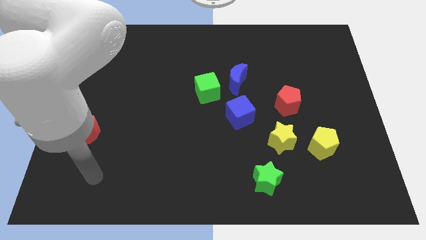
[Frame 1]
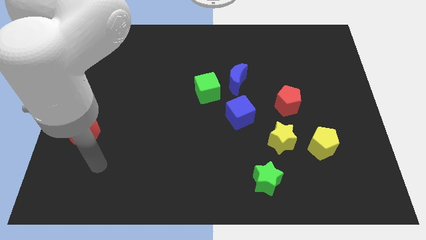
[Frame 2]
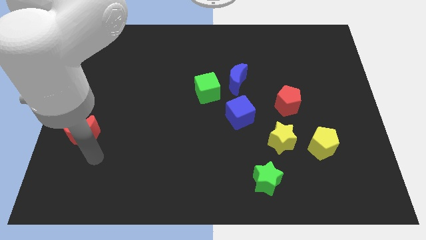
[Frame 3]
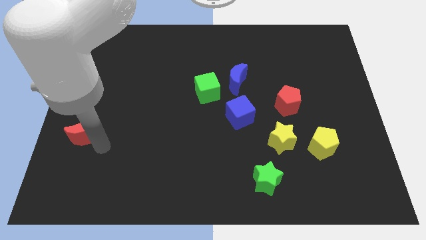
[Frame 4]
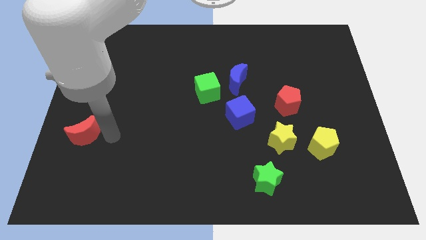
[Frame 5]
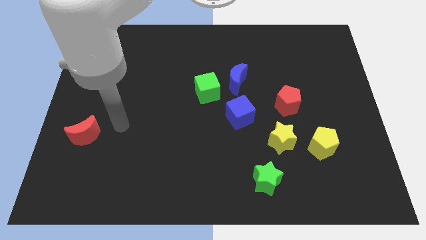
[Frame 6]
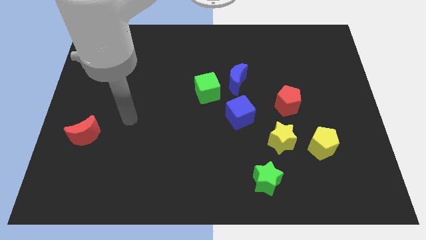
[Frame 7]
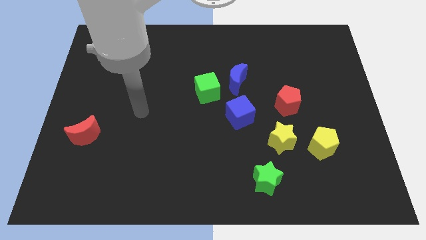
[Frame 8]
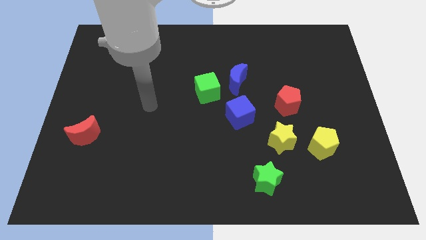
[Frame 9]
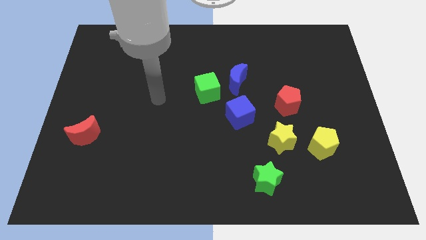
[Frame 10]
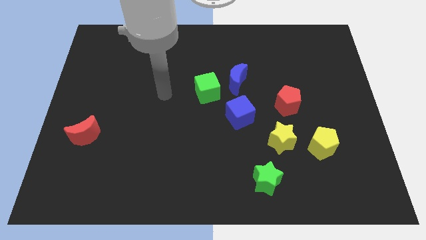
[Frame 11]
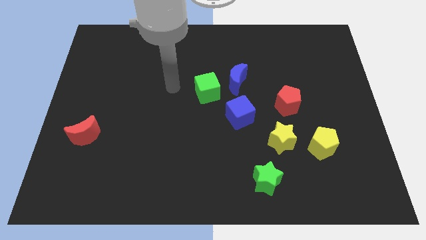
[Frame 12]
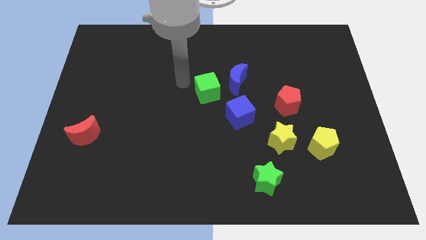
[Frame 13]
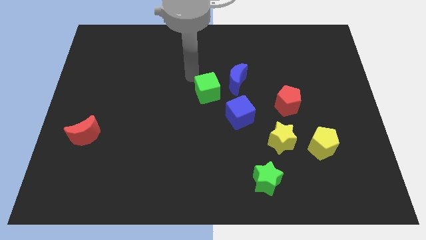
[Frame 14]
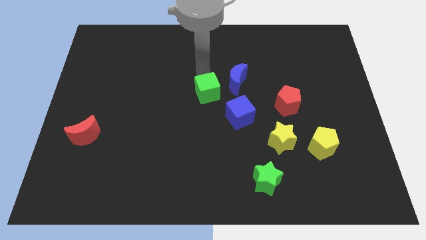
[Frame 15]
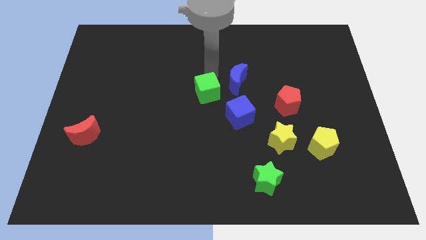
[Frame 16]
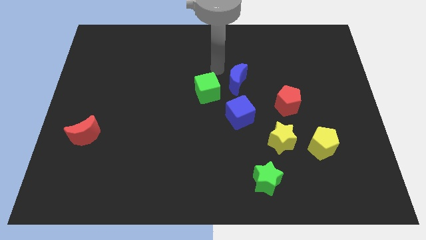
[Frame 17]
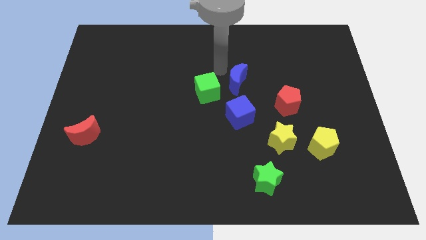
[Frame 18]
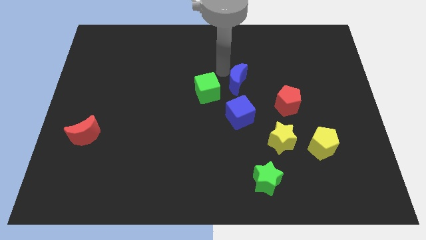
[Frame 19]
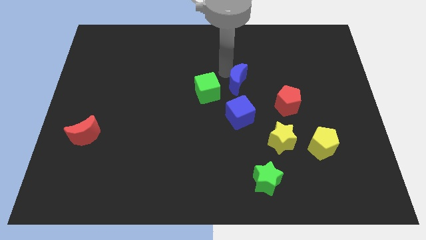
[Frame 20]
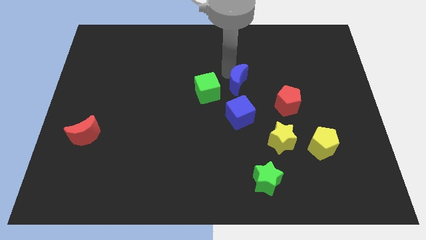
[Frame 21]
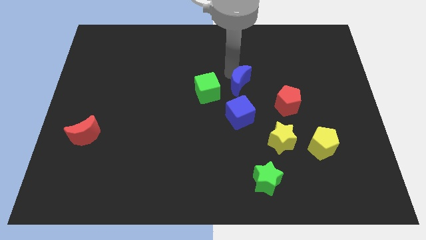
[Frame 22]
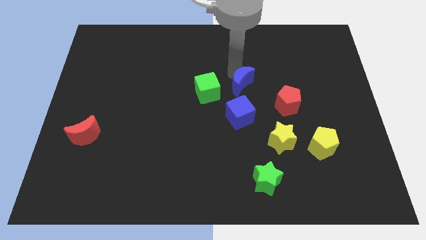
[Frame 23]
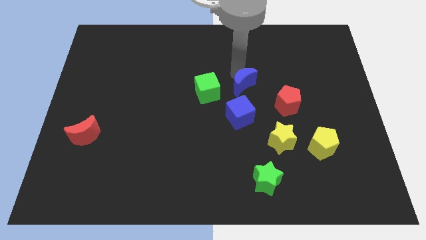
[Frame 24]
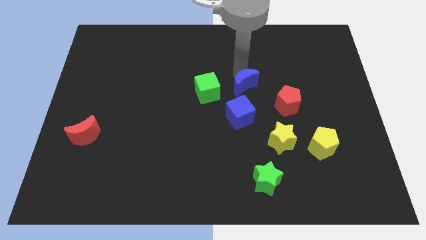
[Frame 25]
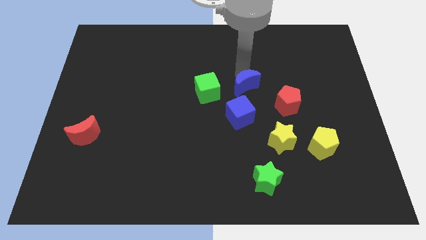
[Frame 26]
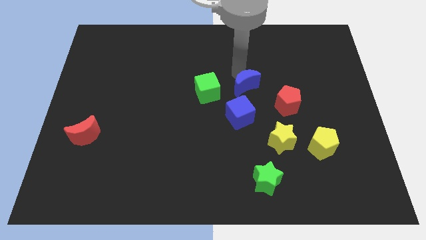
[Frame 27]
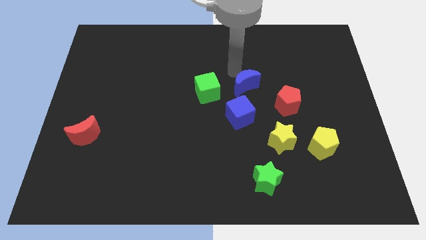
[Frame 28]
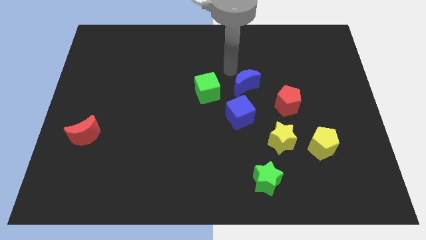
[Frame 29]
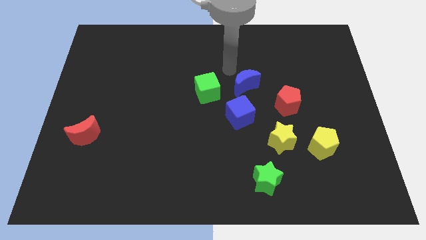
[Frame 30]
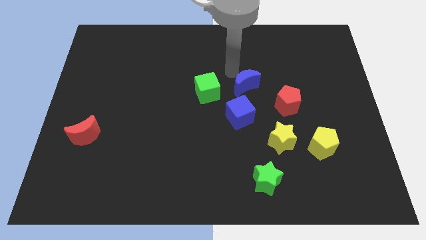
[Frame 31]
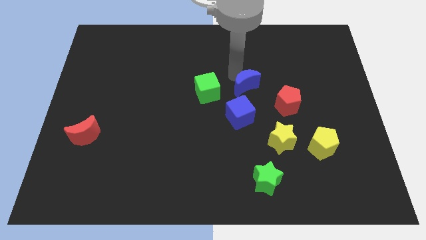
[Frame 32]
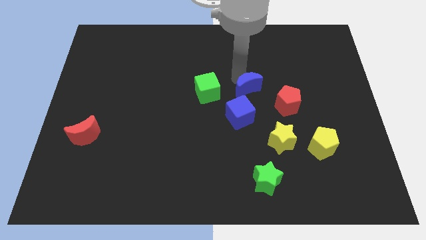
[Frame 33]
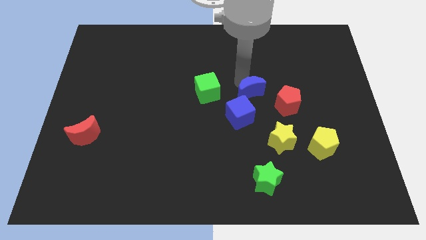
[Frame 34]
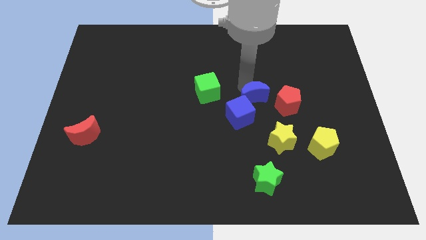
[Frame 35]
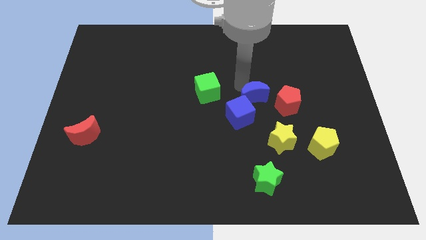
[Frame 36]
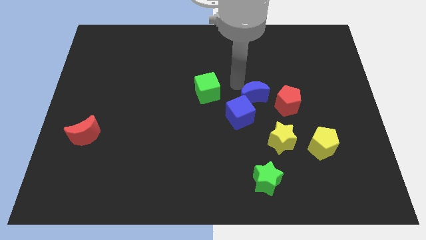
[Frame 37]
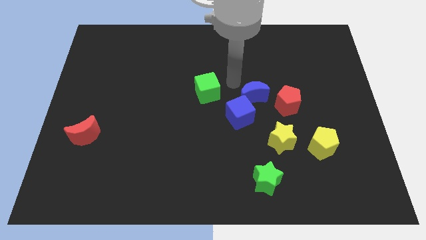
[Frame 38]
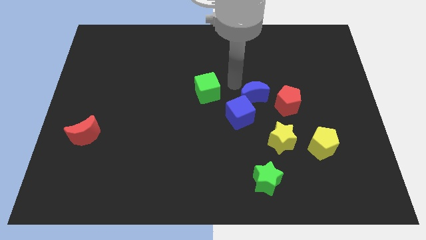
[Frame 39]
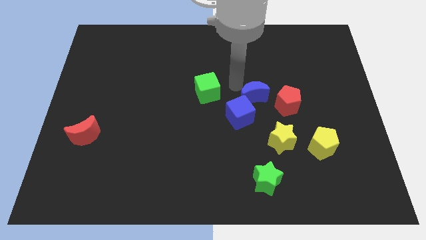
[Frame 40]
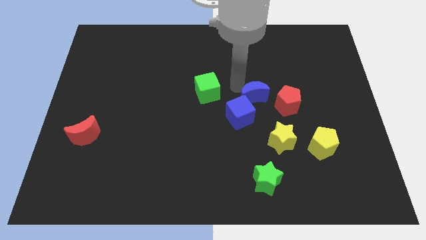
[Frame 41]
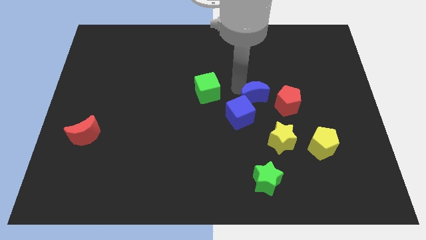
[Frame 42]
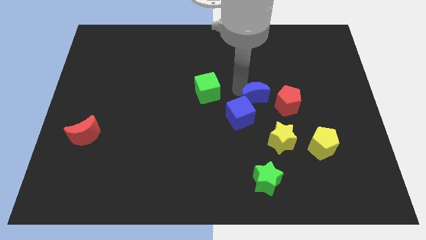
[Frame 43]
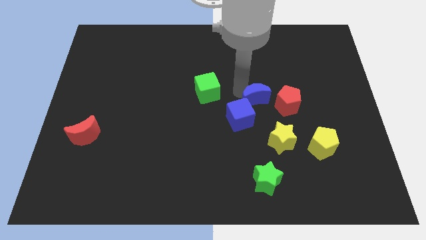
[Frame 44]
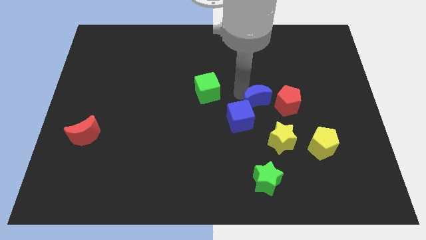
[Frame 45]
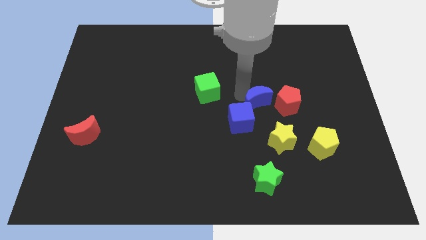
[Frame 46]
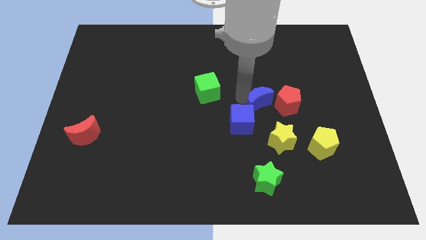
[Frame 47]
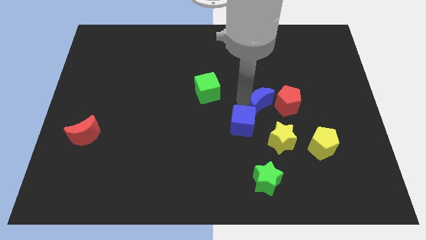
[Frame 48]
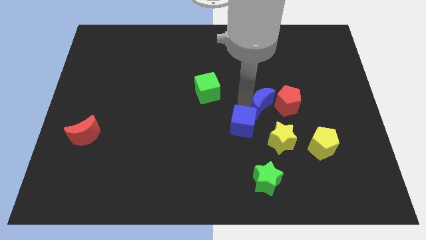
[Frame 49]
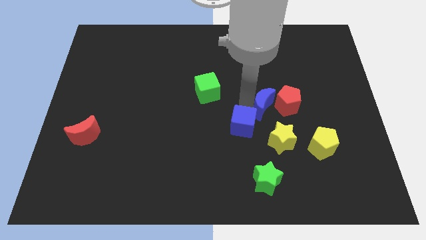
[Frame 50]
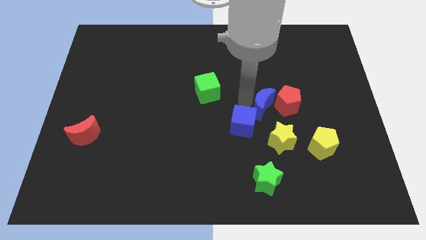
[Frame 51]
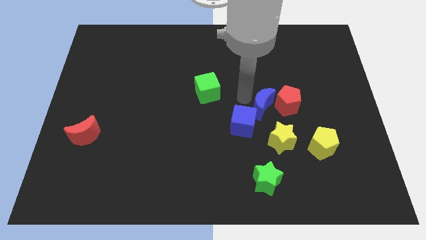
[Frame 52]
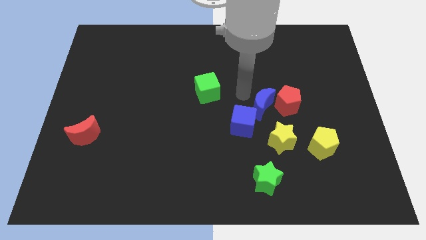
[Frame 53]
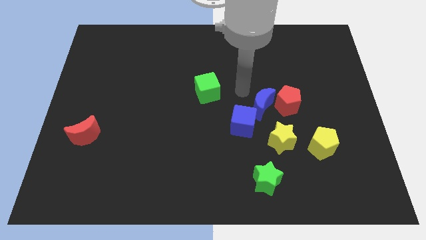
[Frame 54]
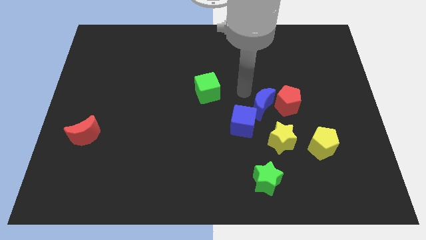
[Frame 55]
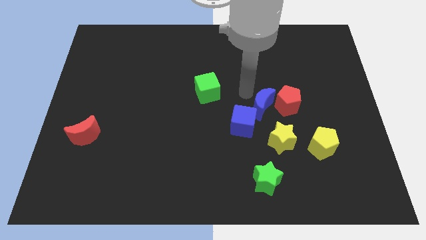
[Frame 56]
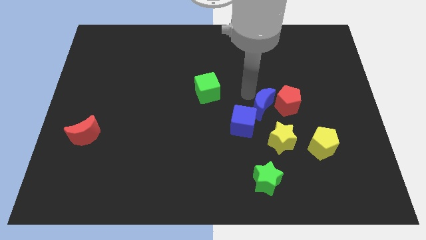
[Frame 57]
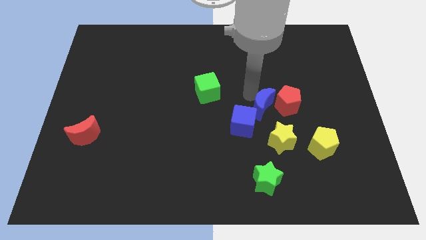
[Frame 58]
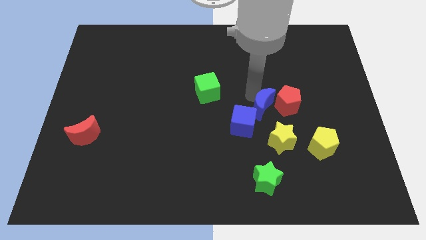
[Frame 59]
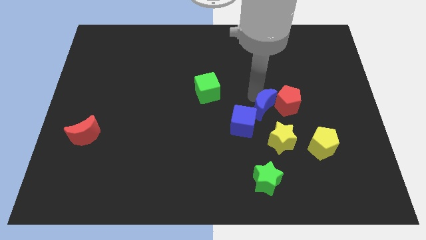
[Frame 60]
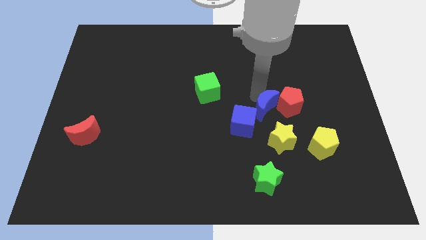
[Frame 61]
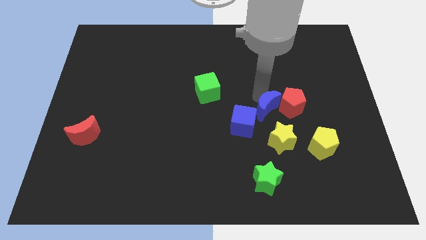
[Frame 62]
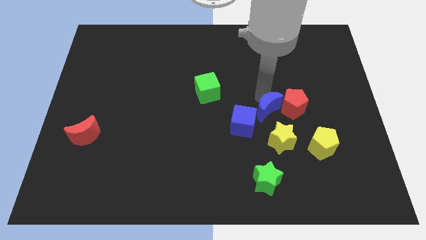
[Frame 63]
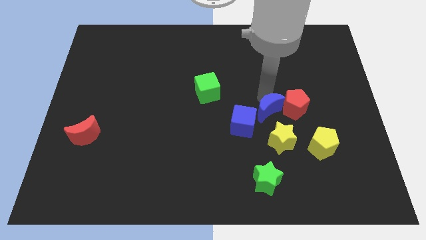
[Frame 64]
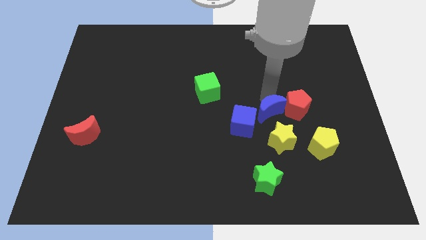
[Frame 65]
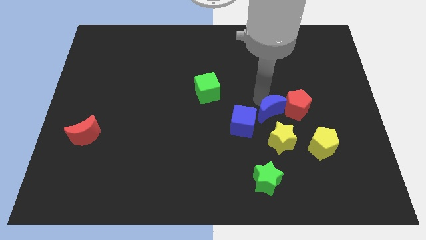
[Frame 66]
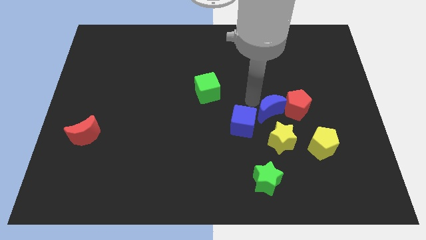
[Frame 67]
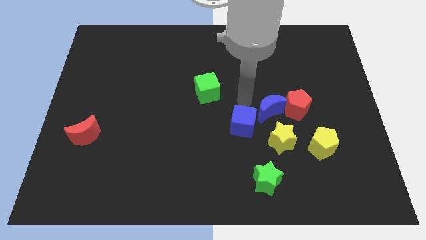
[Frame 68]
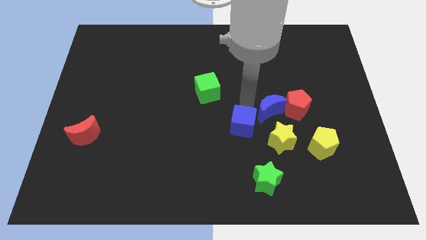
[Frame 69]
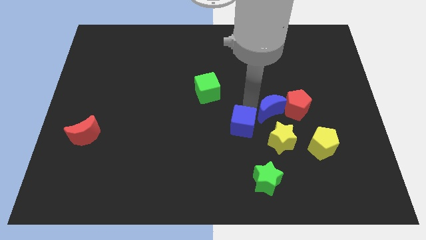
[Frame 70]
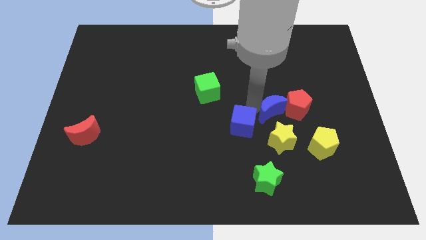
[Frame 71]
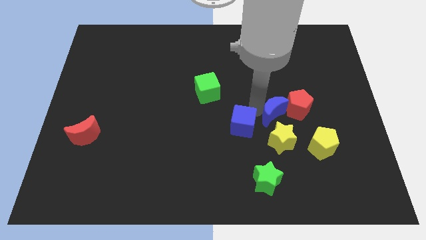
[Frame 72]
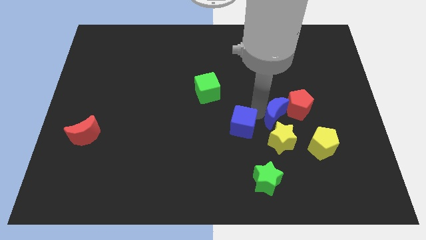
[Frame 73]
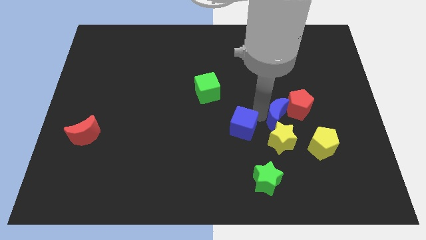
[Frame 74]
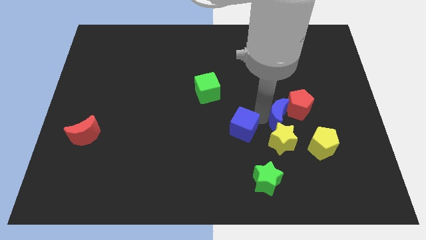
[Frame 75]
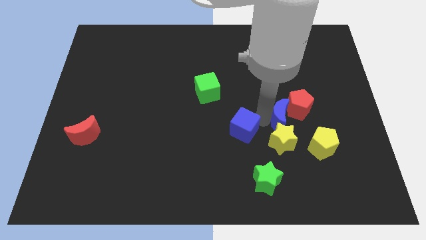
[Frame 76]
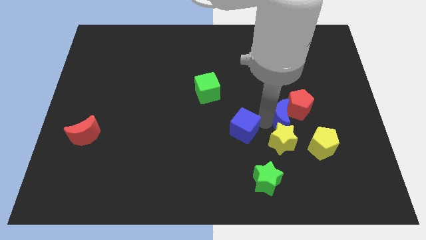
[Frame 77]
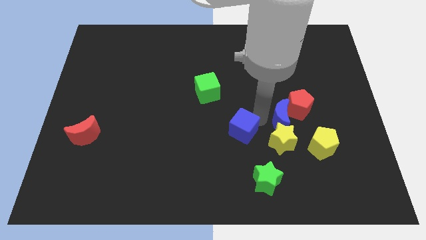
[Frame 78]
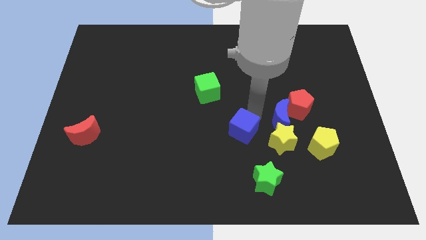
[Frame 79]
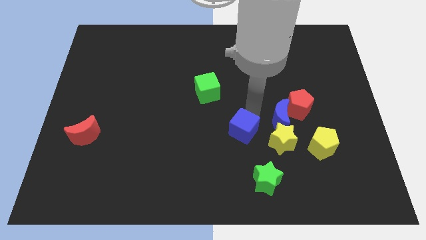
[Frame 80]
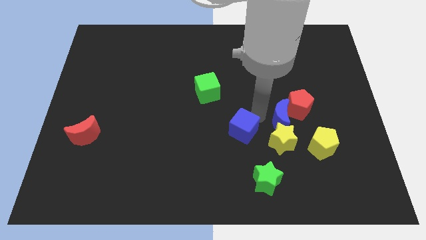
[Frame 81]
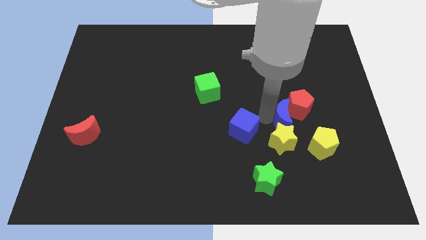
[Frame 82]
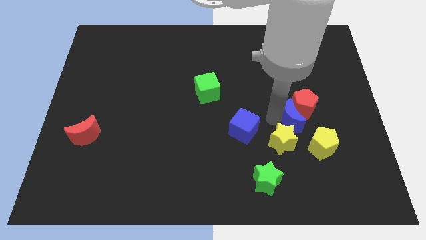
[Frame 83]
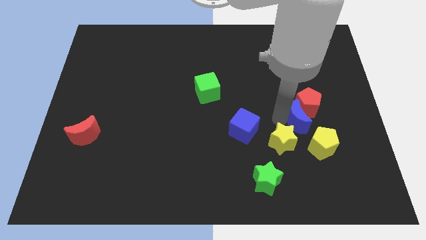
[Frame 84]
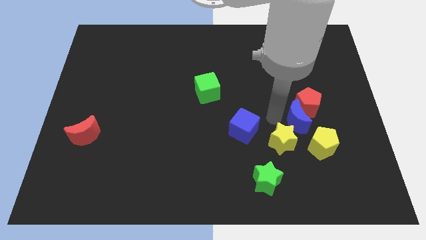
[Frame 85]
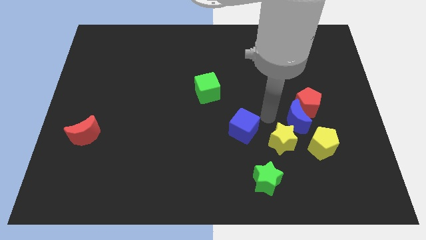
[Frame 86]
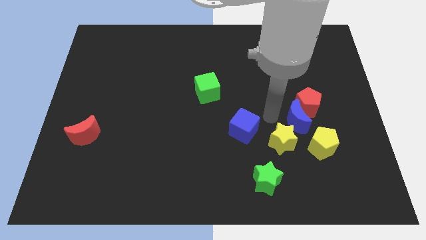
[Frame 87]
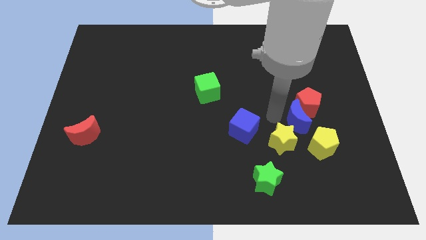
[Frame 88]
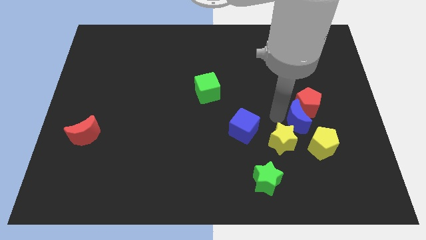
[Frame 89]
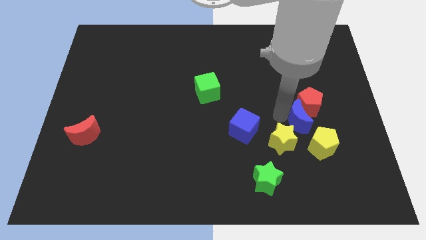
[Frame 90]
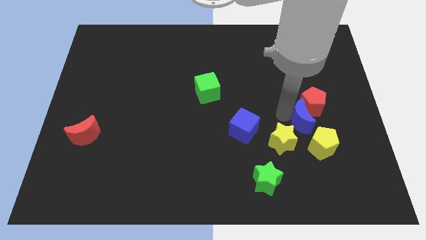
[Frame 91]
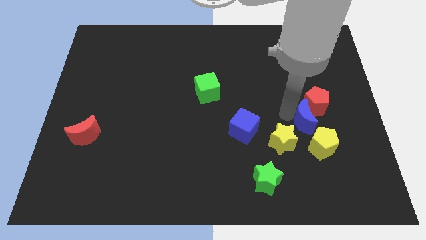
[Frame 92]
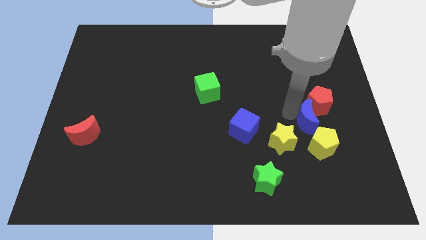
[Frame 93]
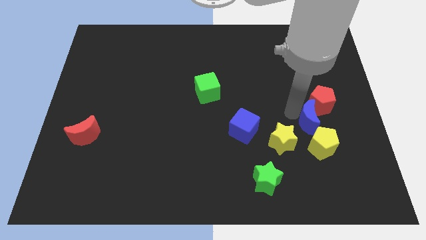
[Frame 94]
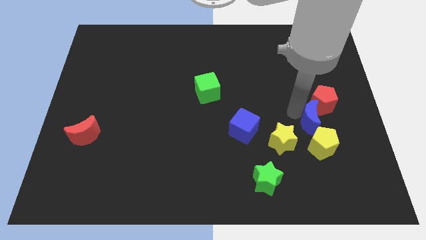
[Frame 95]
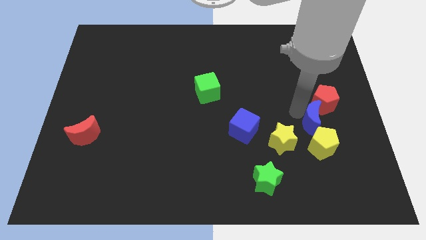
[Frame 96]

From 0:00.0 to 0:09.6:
push the blue moon downwards and right
